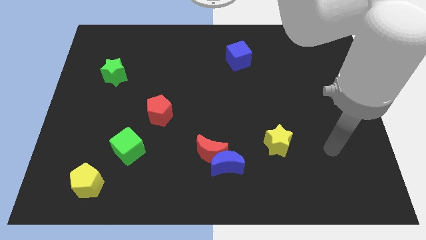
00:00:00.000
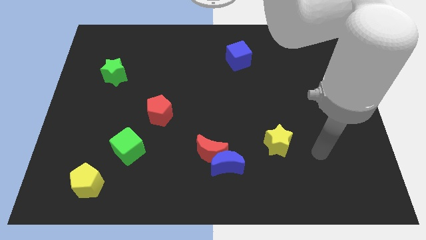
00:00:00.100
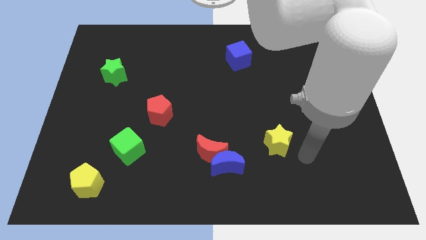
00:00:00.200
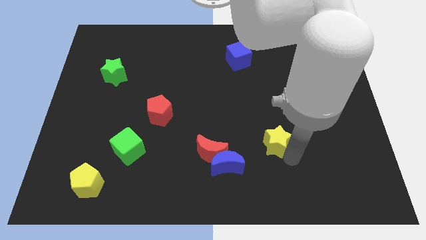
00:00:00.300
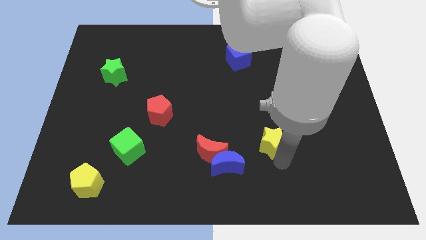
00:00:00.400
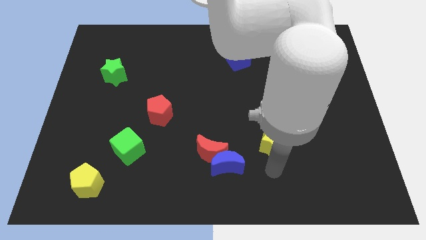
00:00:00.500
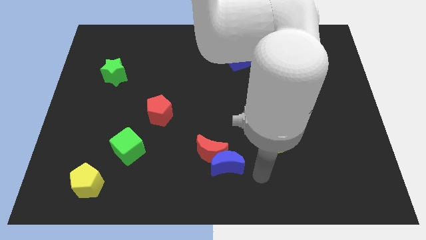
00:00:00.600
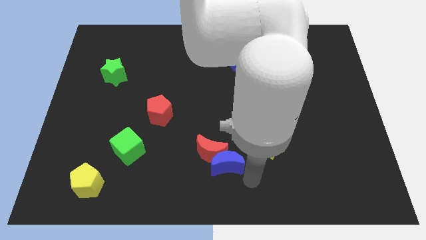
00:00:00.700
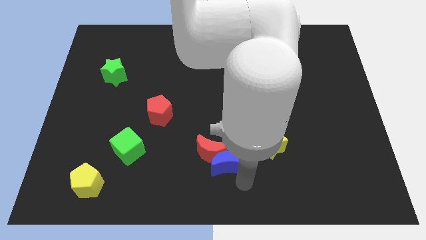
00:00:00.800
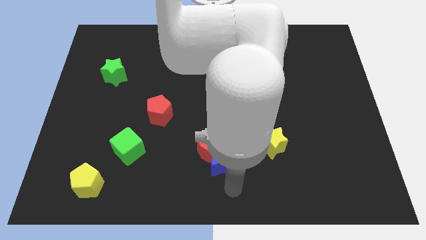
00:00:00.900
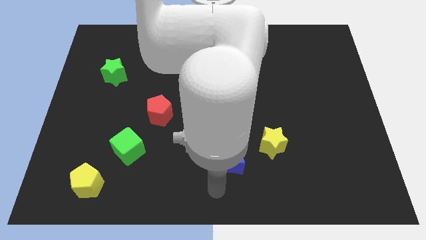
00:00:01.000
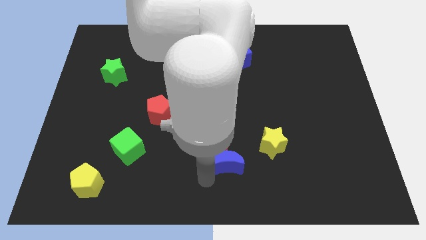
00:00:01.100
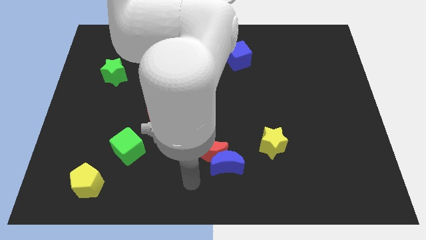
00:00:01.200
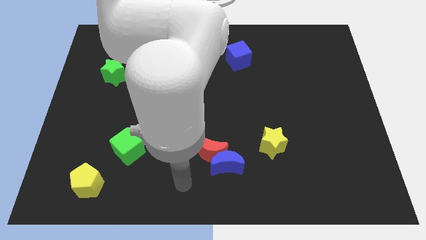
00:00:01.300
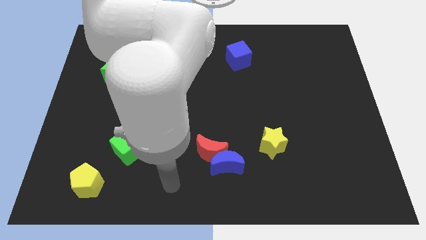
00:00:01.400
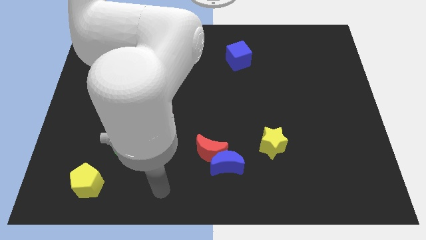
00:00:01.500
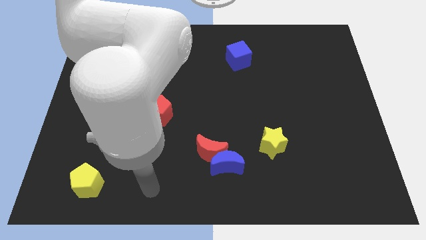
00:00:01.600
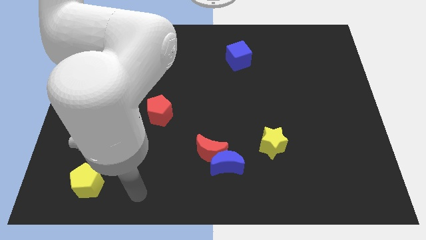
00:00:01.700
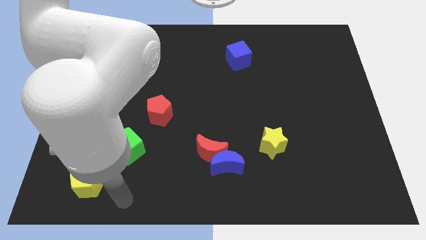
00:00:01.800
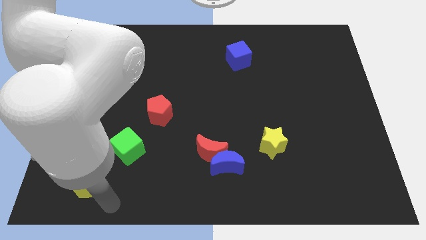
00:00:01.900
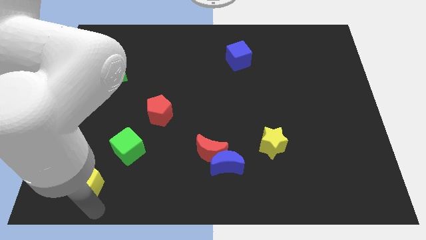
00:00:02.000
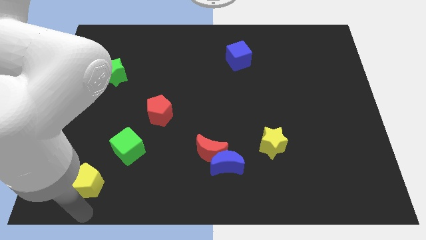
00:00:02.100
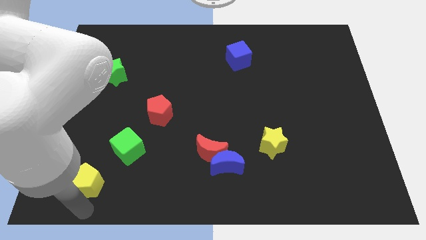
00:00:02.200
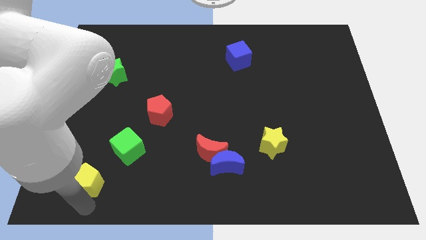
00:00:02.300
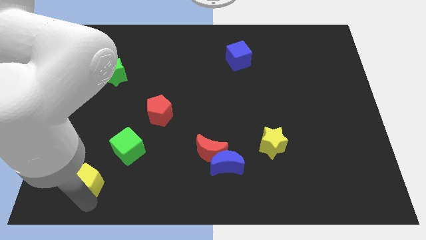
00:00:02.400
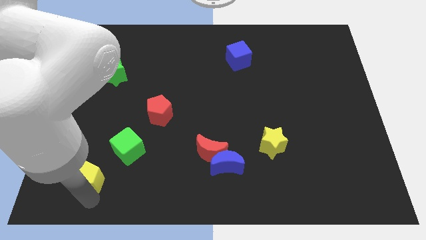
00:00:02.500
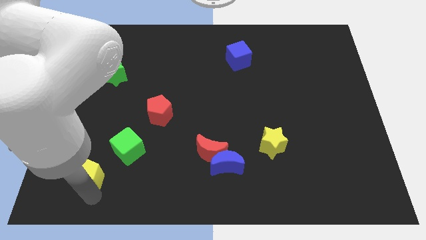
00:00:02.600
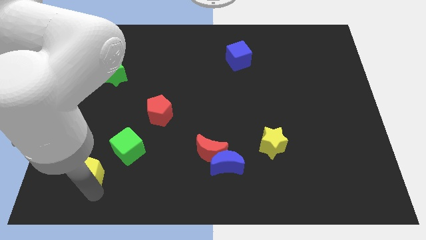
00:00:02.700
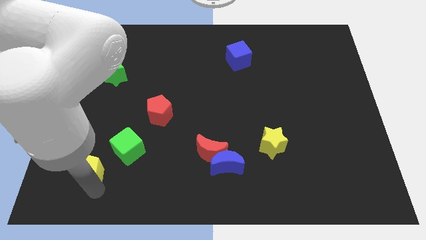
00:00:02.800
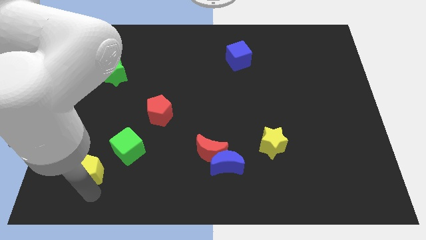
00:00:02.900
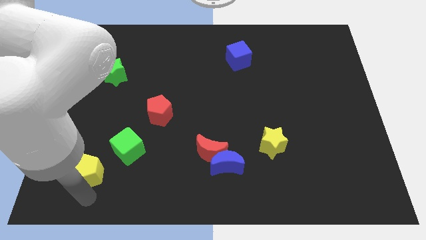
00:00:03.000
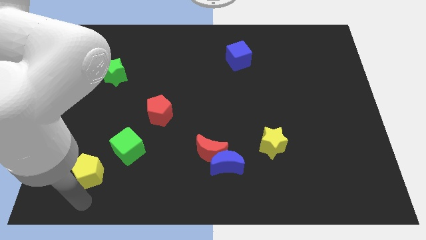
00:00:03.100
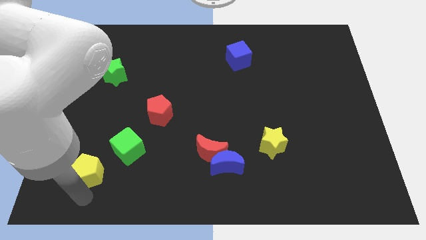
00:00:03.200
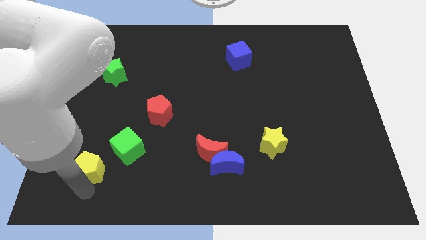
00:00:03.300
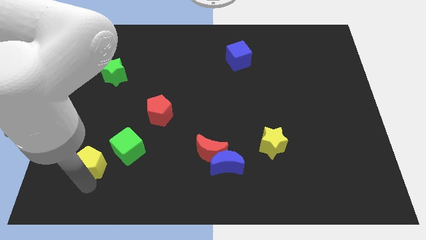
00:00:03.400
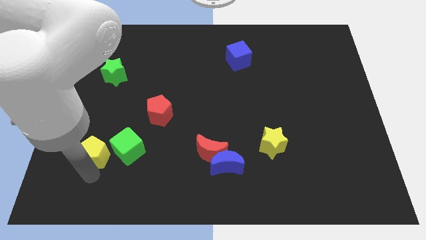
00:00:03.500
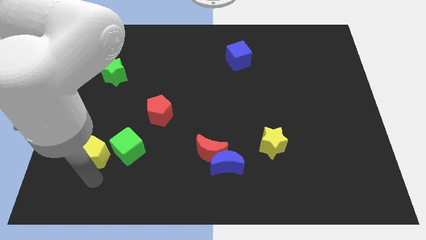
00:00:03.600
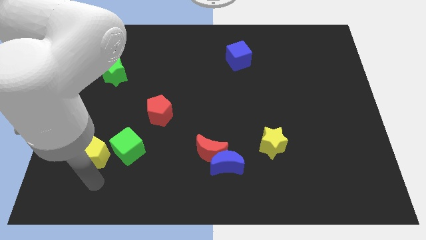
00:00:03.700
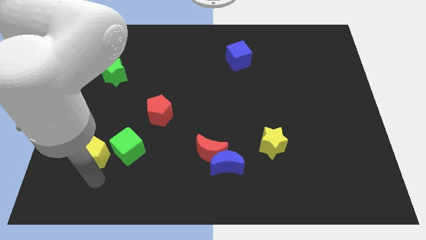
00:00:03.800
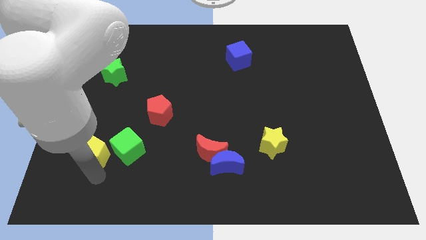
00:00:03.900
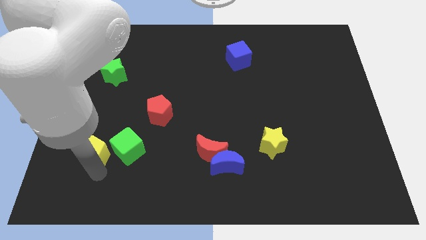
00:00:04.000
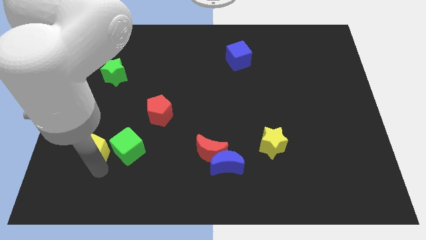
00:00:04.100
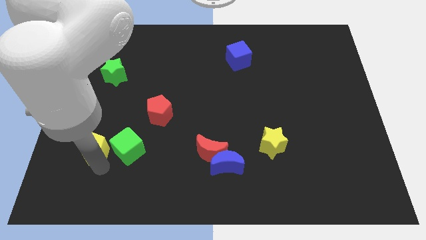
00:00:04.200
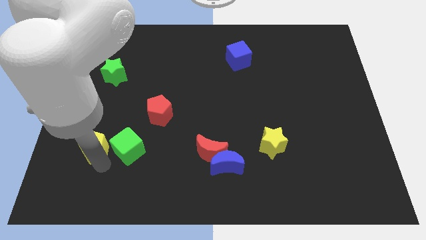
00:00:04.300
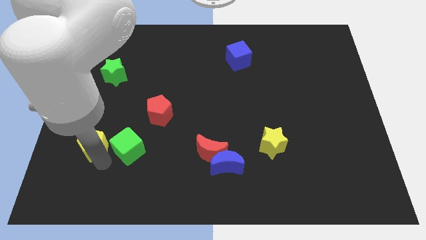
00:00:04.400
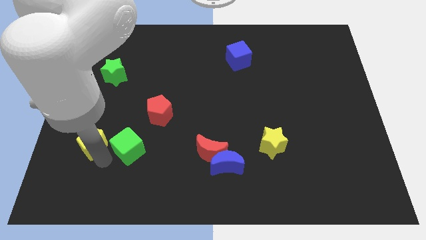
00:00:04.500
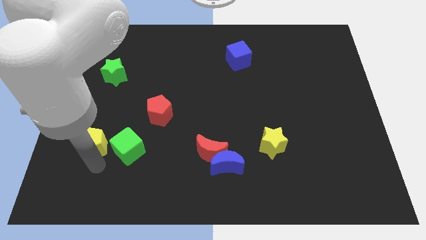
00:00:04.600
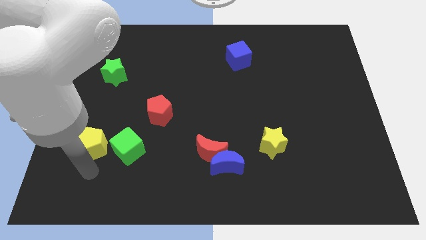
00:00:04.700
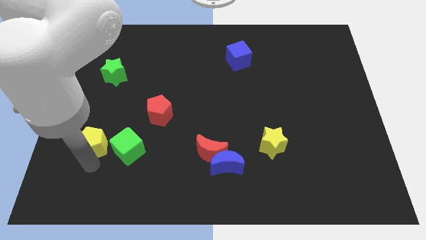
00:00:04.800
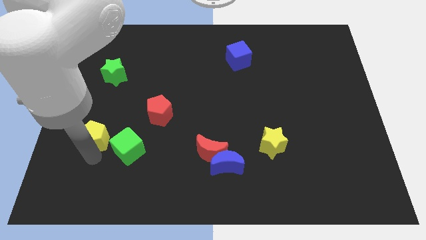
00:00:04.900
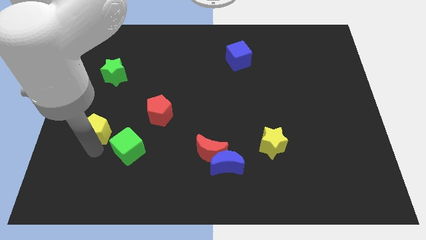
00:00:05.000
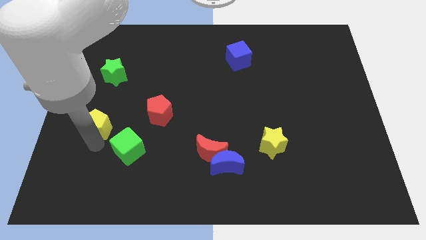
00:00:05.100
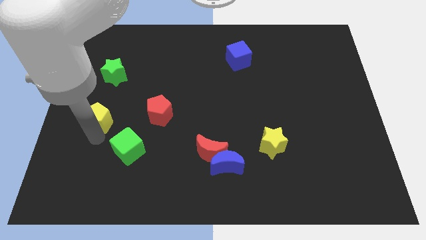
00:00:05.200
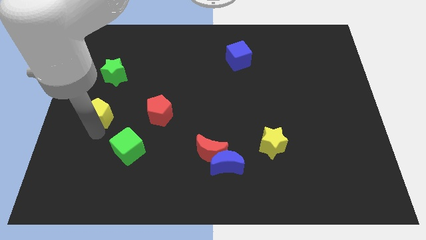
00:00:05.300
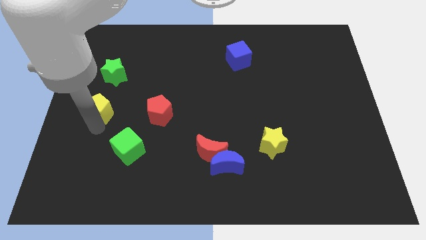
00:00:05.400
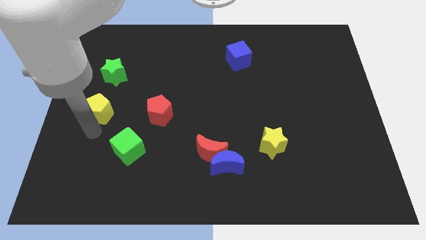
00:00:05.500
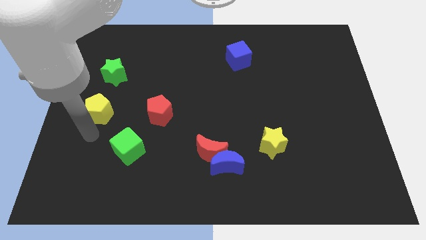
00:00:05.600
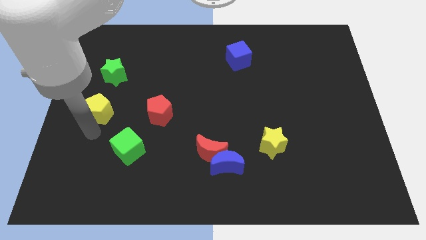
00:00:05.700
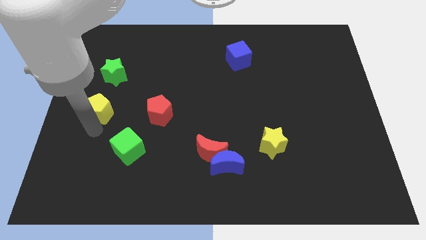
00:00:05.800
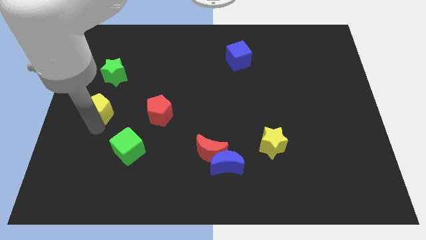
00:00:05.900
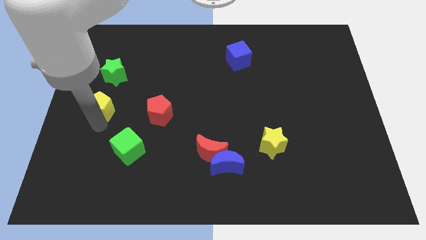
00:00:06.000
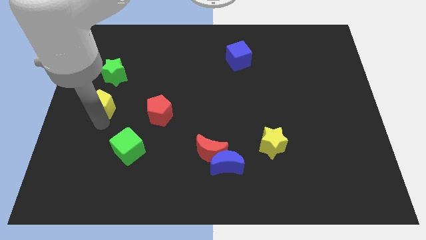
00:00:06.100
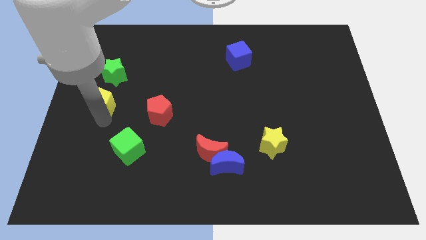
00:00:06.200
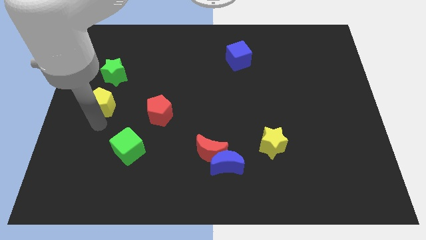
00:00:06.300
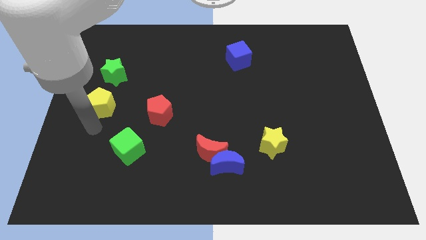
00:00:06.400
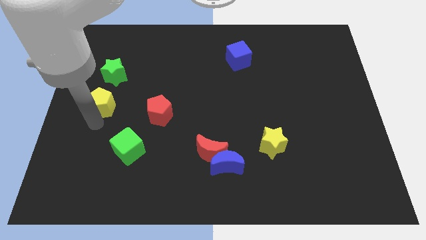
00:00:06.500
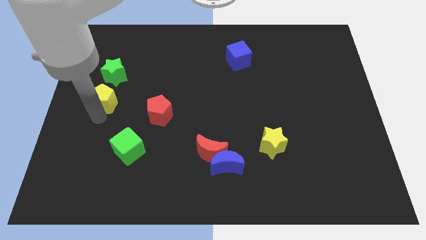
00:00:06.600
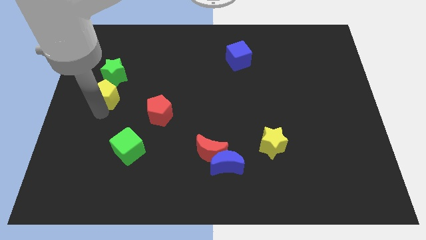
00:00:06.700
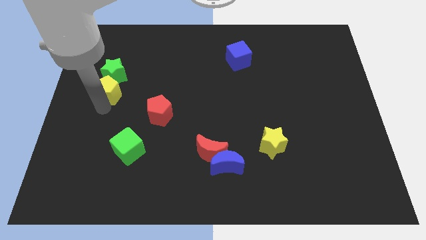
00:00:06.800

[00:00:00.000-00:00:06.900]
slide the yellow pentagon towards the green star
